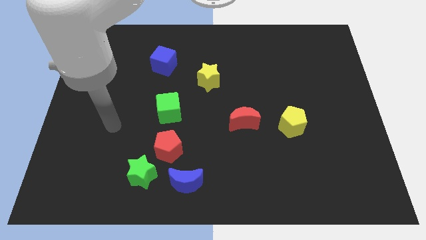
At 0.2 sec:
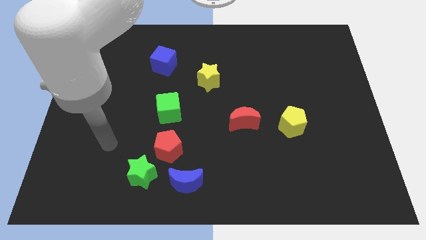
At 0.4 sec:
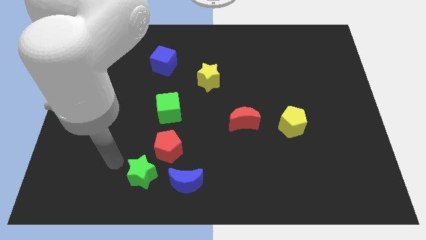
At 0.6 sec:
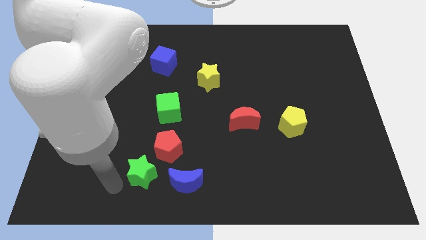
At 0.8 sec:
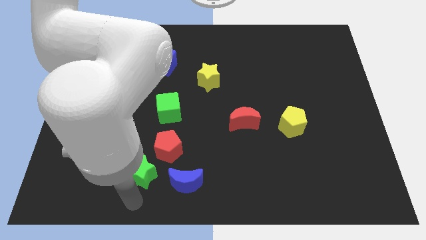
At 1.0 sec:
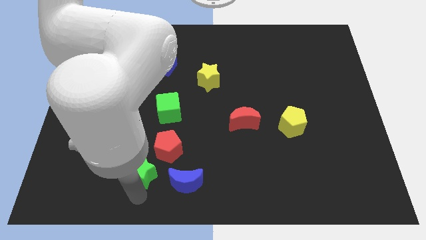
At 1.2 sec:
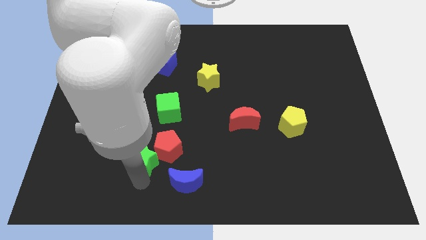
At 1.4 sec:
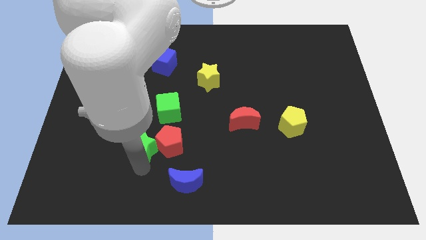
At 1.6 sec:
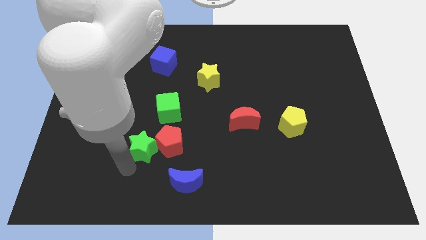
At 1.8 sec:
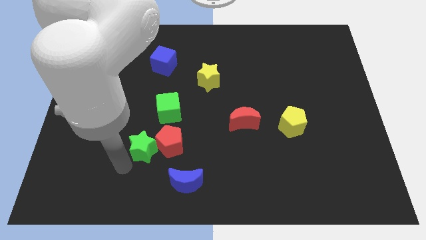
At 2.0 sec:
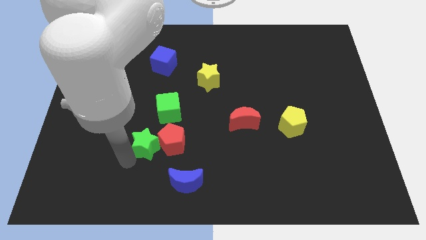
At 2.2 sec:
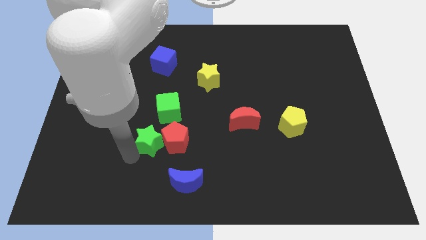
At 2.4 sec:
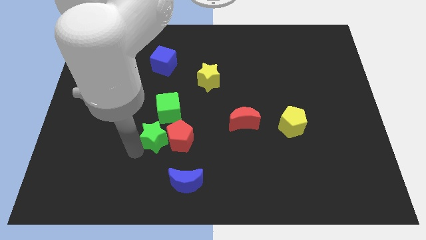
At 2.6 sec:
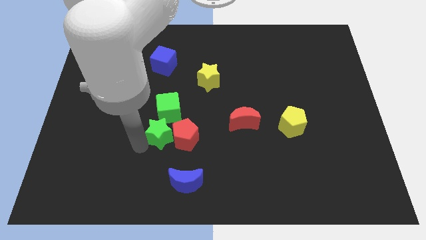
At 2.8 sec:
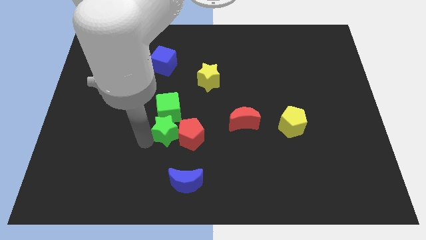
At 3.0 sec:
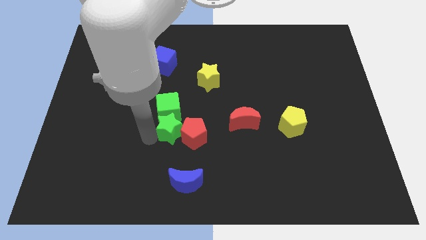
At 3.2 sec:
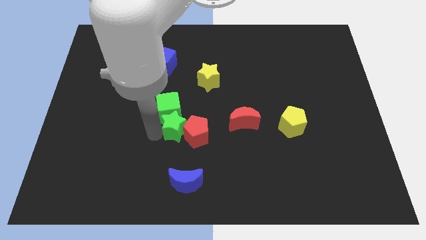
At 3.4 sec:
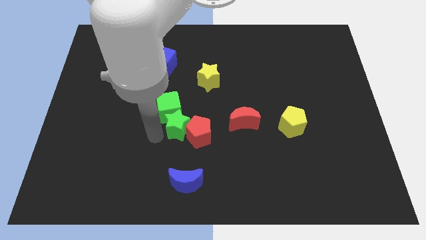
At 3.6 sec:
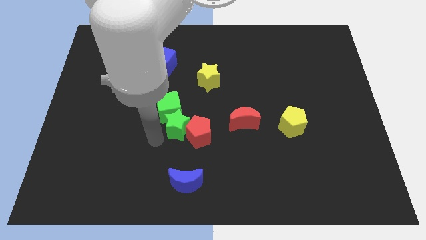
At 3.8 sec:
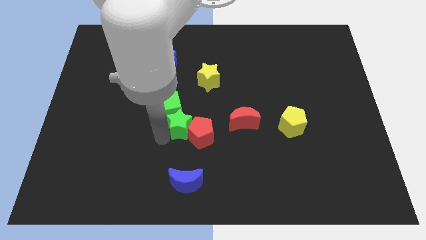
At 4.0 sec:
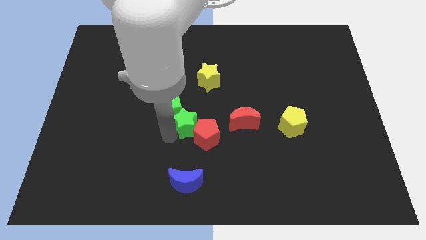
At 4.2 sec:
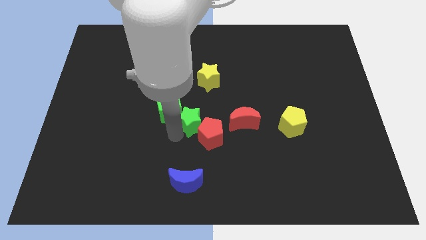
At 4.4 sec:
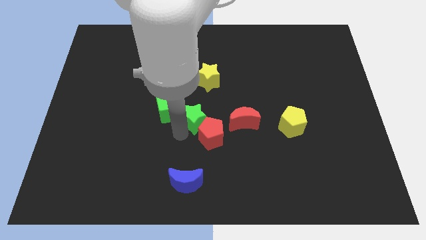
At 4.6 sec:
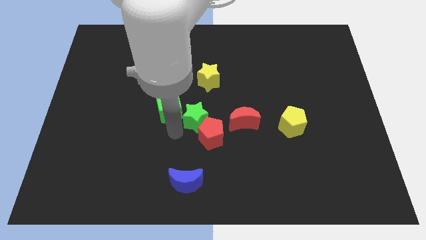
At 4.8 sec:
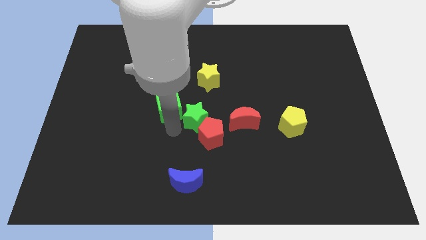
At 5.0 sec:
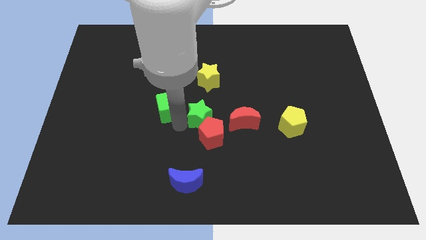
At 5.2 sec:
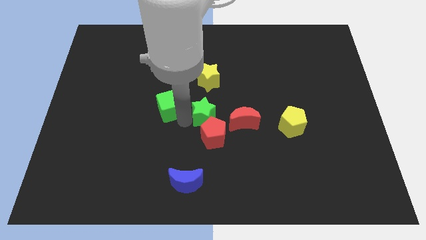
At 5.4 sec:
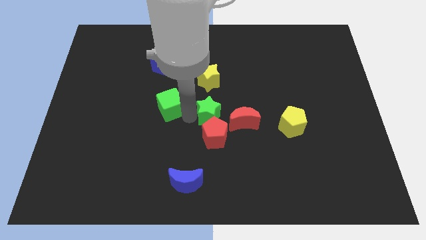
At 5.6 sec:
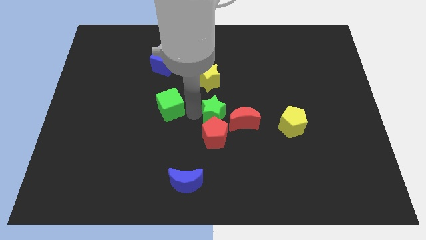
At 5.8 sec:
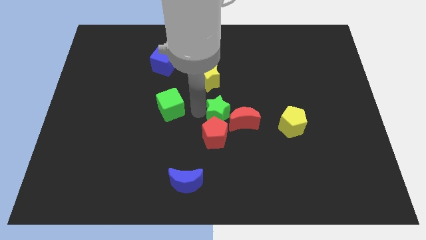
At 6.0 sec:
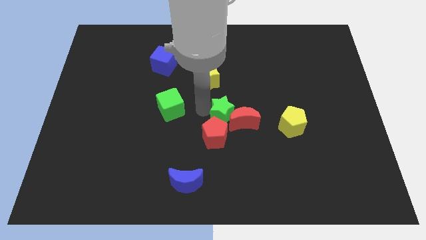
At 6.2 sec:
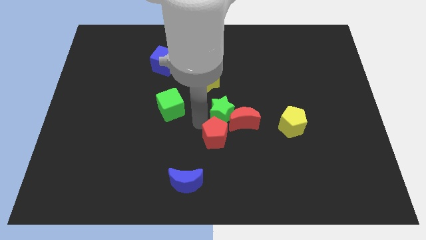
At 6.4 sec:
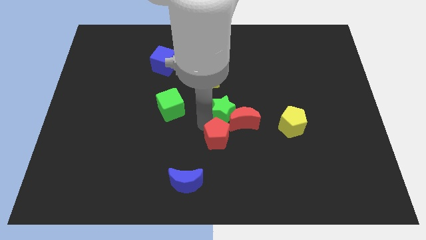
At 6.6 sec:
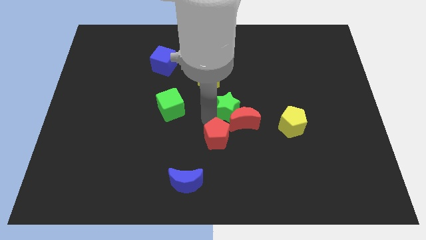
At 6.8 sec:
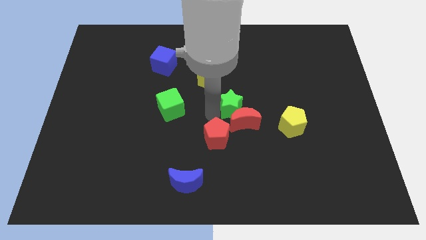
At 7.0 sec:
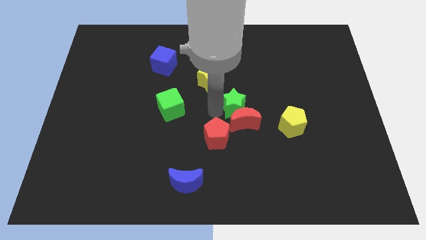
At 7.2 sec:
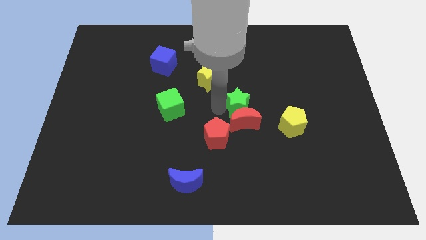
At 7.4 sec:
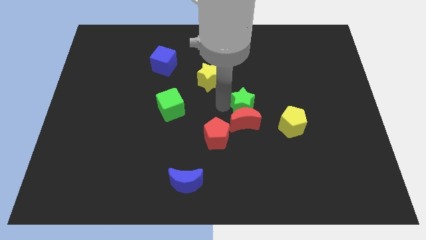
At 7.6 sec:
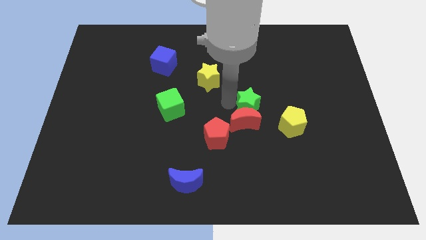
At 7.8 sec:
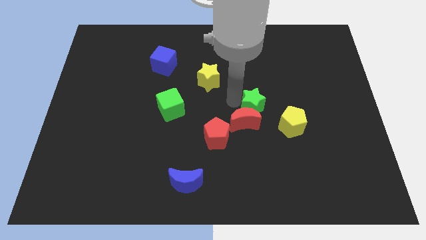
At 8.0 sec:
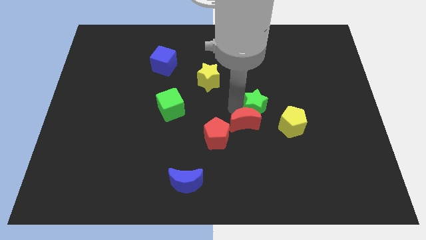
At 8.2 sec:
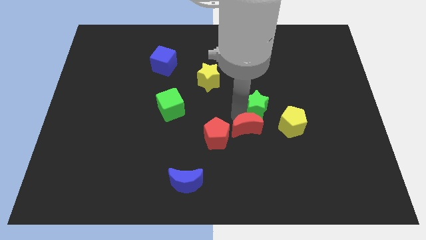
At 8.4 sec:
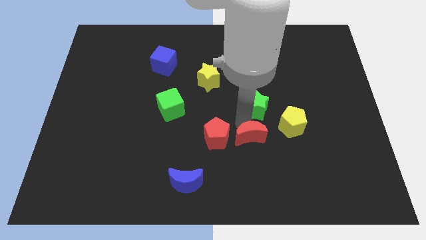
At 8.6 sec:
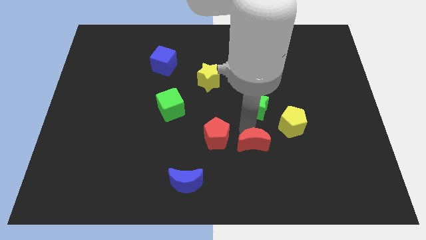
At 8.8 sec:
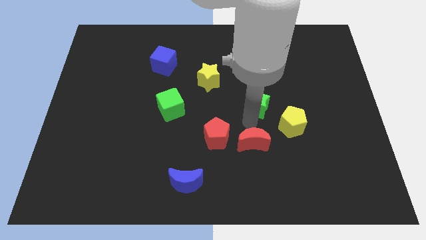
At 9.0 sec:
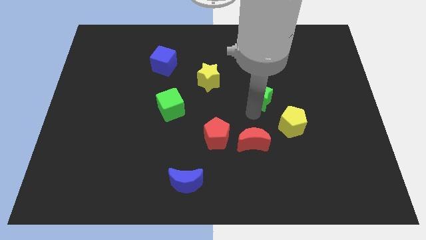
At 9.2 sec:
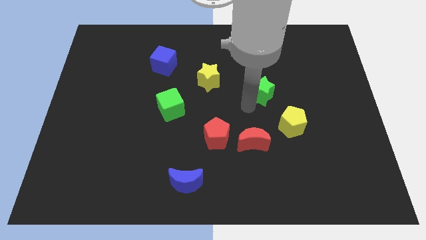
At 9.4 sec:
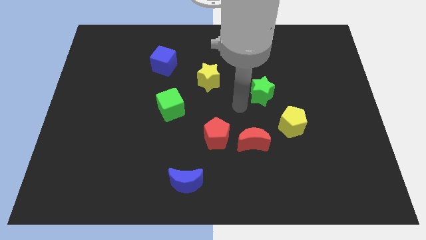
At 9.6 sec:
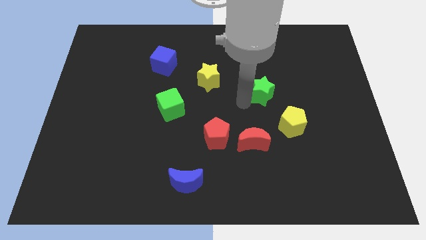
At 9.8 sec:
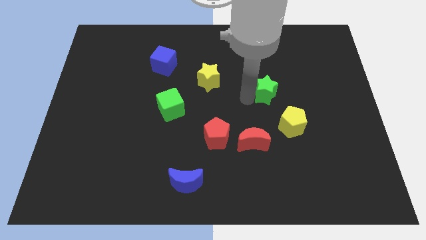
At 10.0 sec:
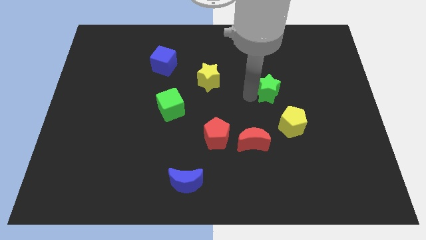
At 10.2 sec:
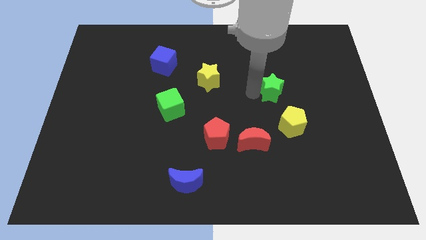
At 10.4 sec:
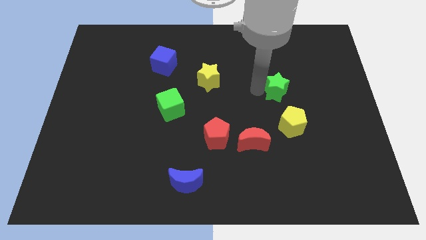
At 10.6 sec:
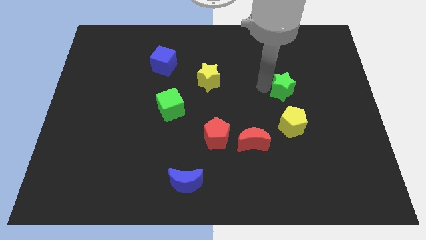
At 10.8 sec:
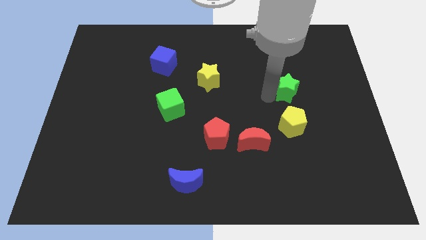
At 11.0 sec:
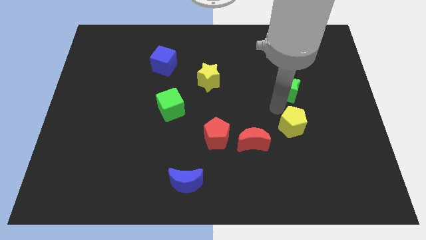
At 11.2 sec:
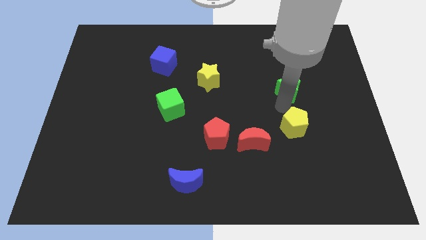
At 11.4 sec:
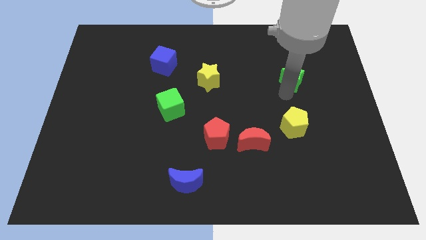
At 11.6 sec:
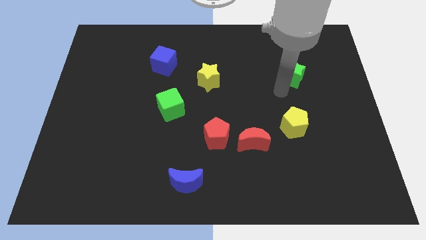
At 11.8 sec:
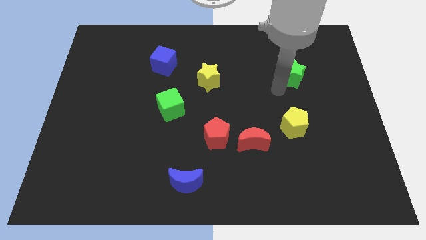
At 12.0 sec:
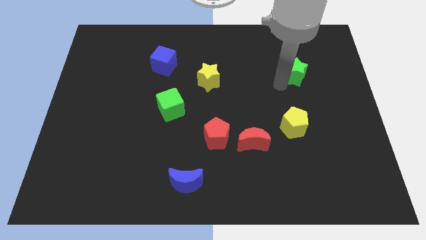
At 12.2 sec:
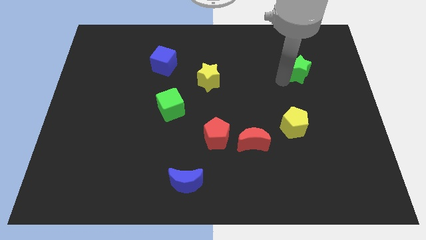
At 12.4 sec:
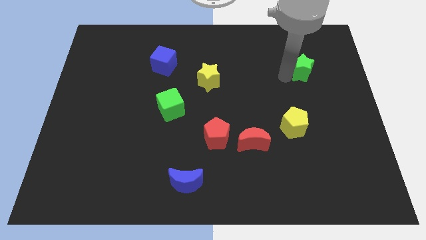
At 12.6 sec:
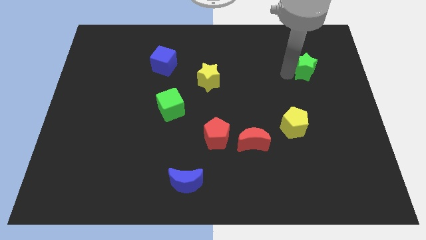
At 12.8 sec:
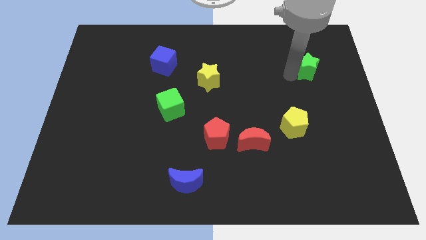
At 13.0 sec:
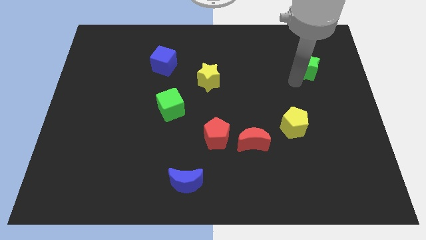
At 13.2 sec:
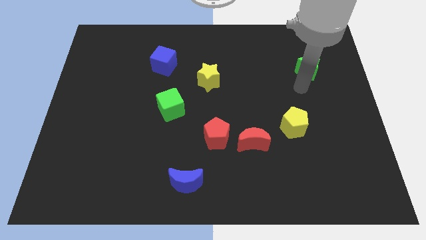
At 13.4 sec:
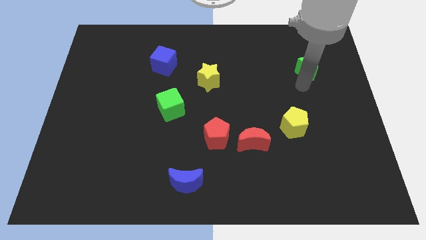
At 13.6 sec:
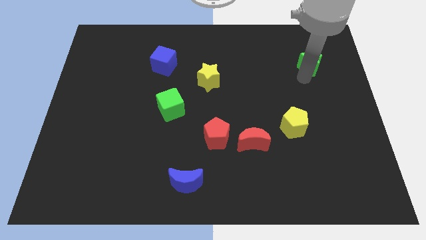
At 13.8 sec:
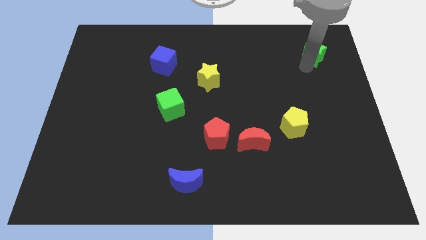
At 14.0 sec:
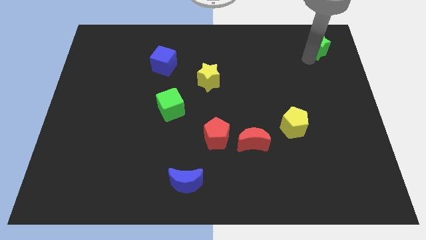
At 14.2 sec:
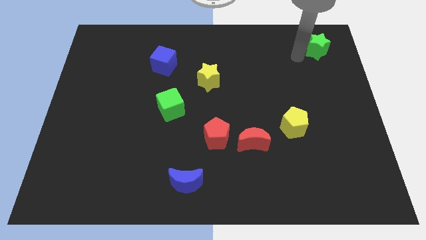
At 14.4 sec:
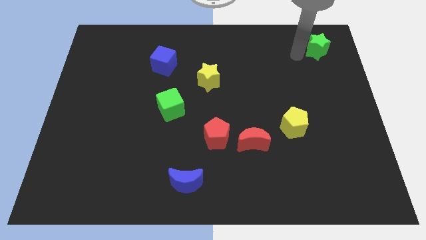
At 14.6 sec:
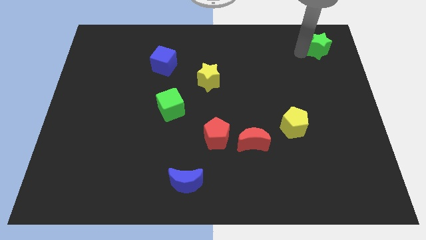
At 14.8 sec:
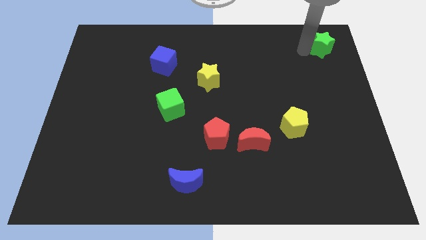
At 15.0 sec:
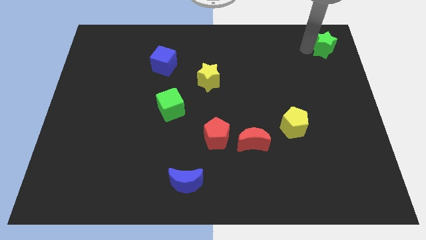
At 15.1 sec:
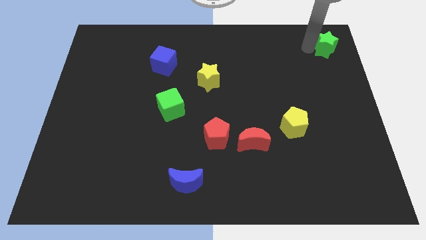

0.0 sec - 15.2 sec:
move the green star to the top right corner
